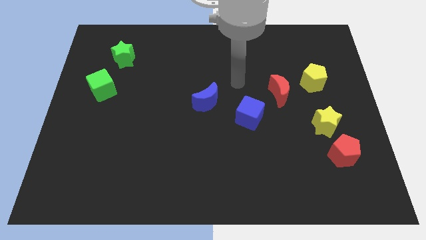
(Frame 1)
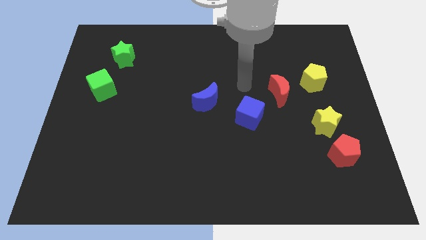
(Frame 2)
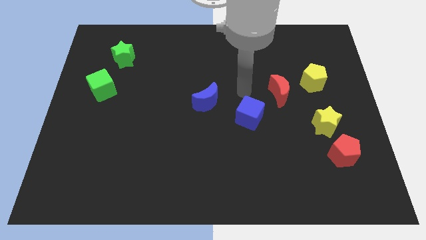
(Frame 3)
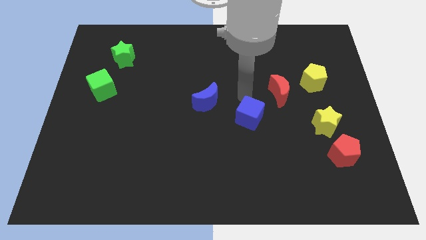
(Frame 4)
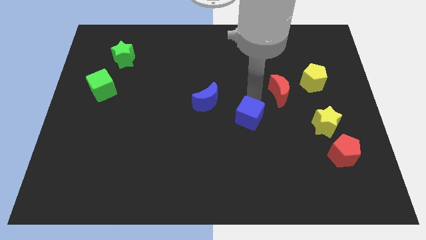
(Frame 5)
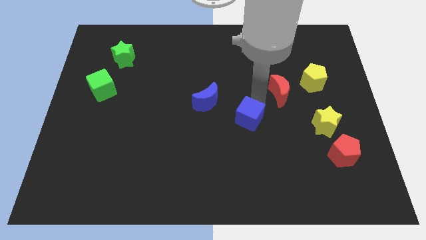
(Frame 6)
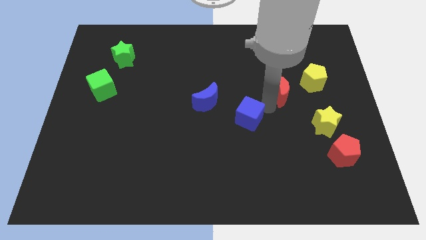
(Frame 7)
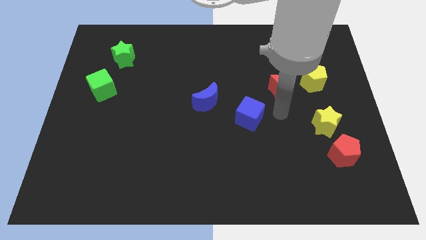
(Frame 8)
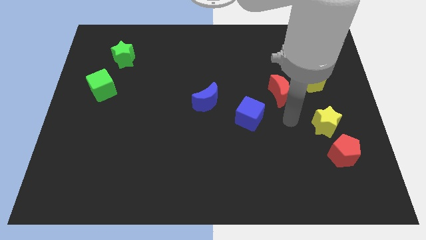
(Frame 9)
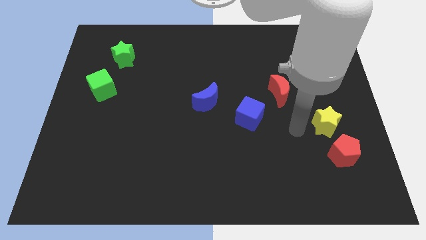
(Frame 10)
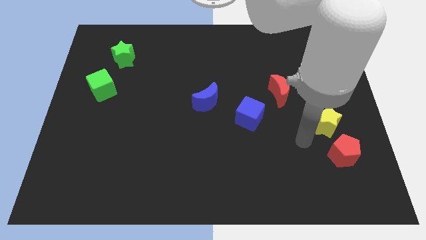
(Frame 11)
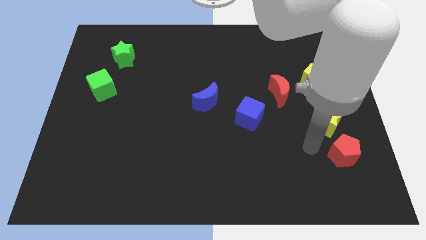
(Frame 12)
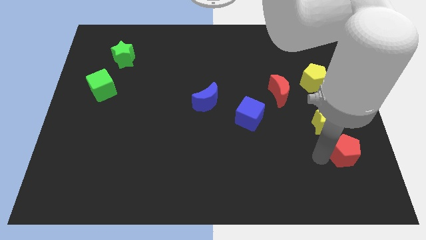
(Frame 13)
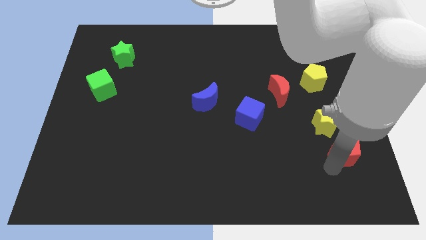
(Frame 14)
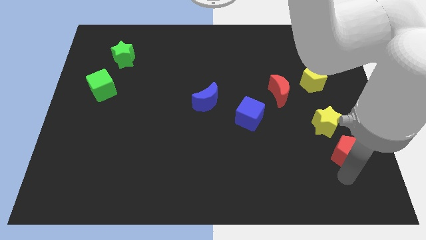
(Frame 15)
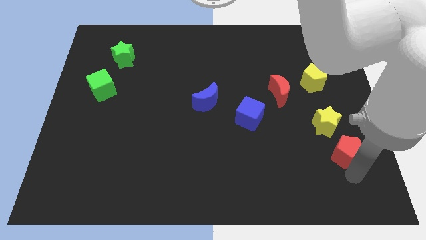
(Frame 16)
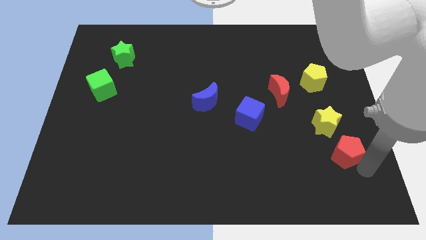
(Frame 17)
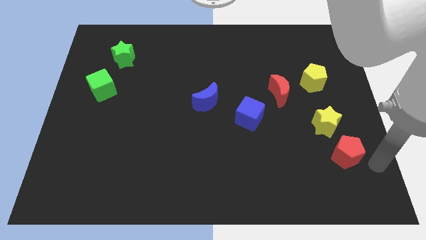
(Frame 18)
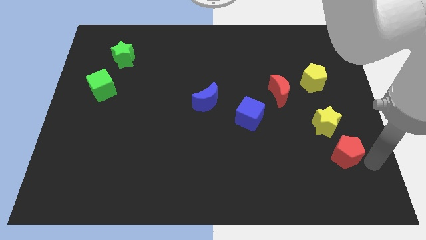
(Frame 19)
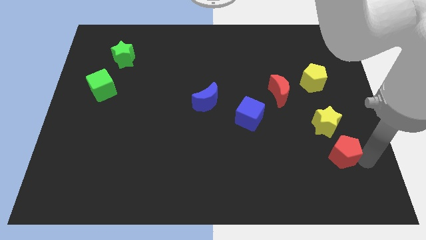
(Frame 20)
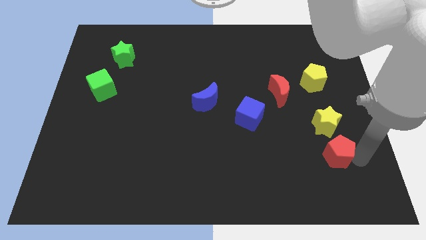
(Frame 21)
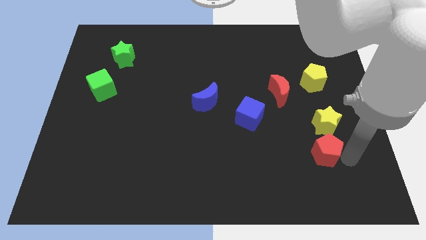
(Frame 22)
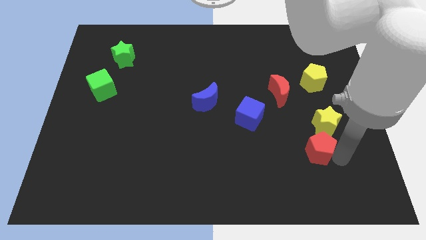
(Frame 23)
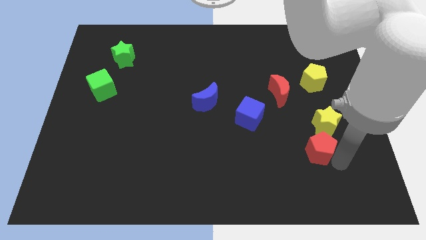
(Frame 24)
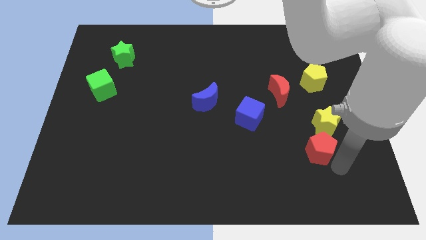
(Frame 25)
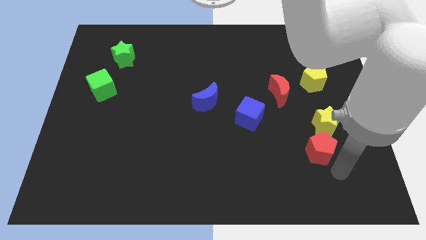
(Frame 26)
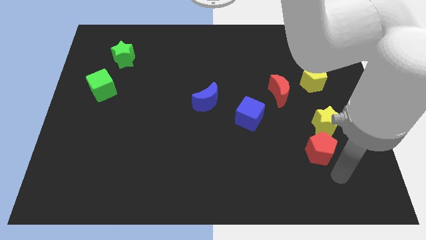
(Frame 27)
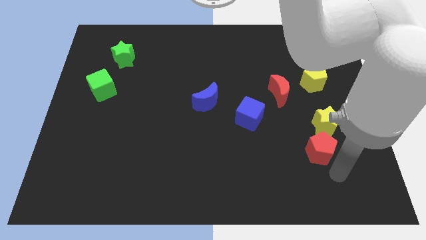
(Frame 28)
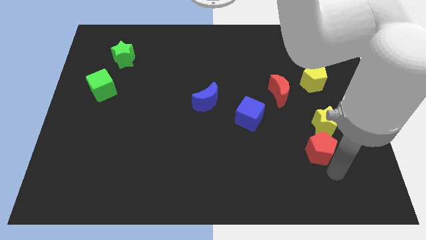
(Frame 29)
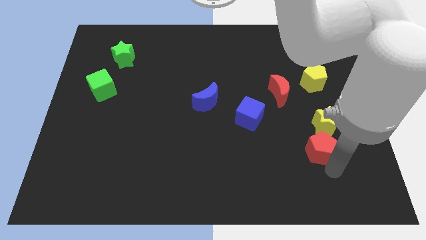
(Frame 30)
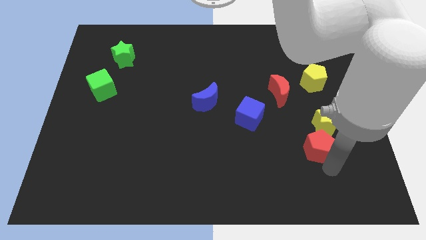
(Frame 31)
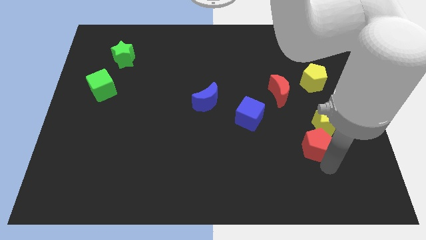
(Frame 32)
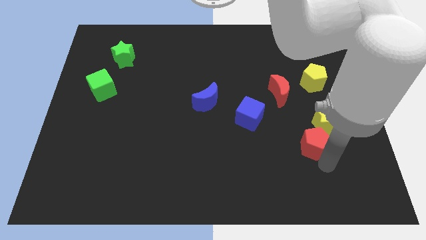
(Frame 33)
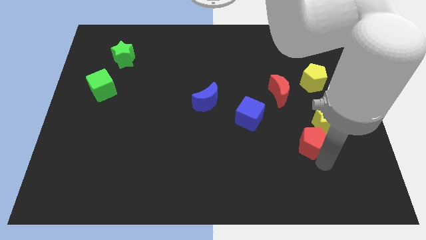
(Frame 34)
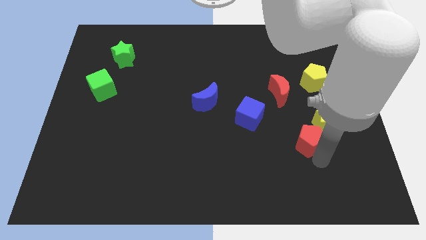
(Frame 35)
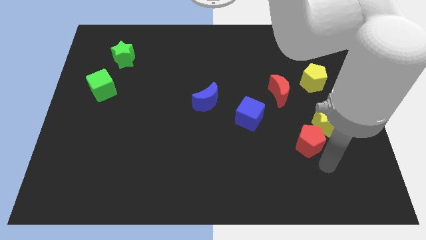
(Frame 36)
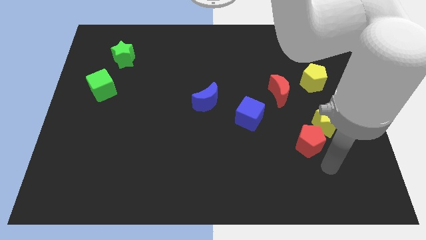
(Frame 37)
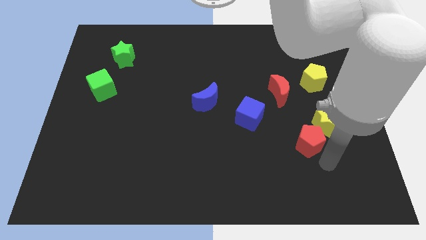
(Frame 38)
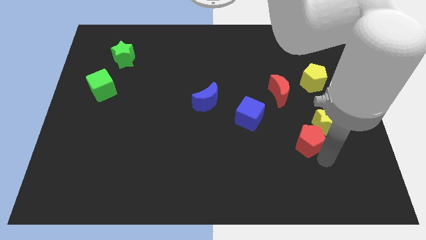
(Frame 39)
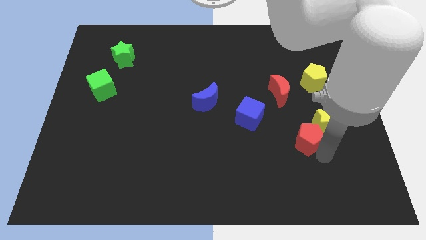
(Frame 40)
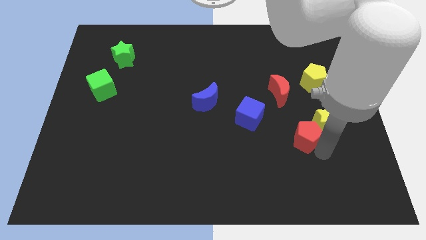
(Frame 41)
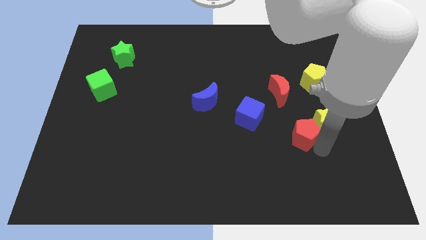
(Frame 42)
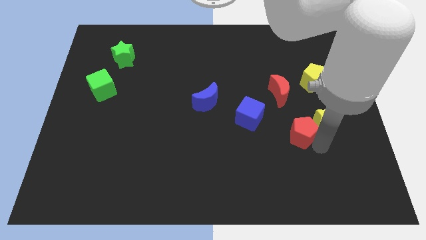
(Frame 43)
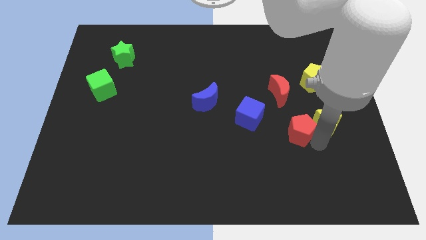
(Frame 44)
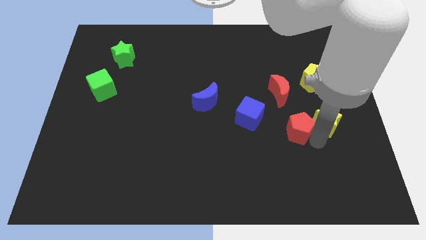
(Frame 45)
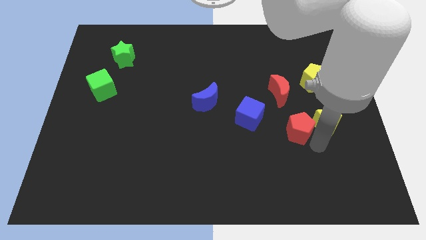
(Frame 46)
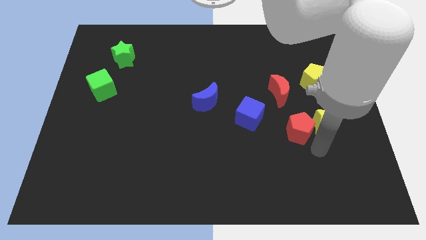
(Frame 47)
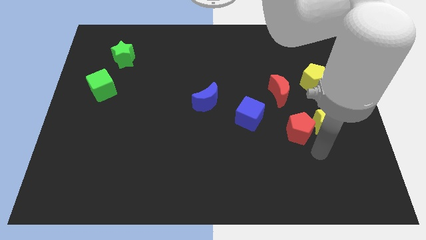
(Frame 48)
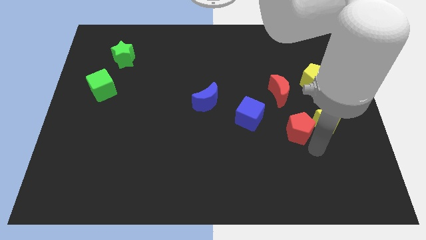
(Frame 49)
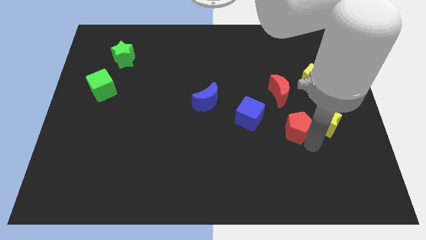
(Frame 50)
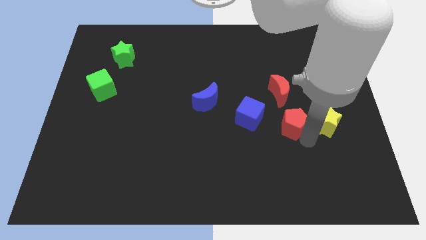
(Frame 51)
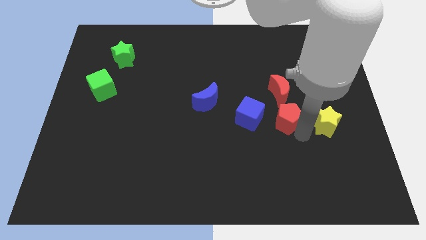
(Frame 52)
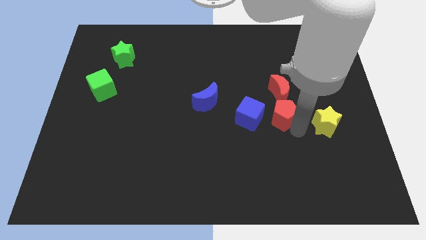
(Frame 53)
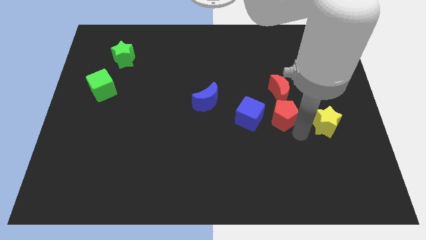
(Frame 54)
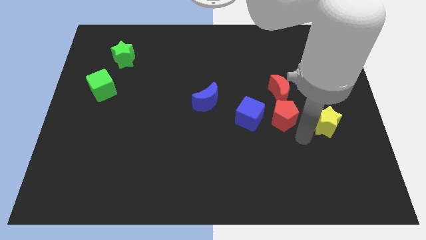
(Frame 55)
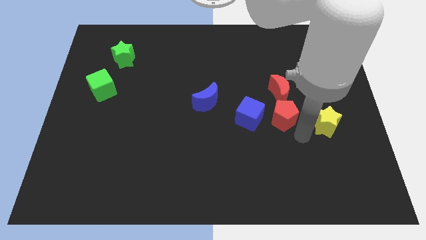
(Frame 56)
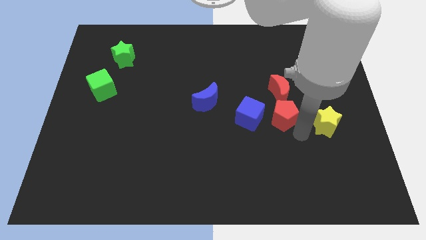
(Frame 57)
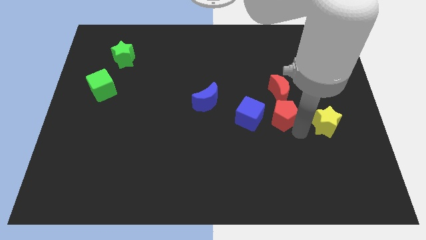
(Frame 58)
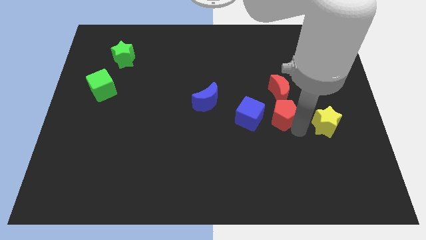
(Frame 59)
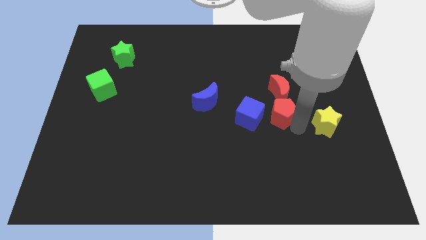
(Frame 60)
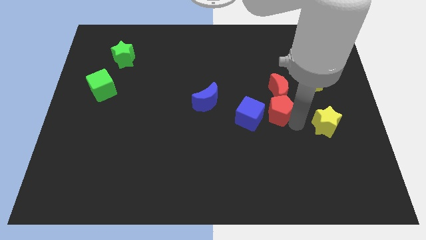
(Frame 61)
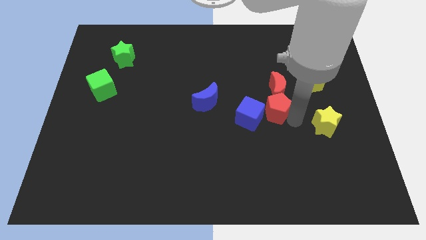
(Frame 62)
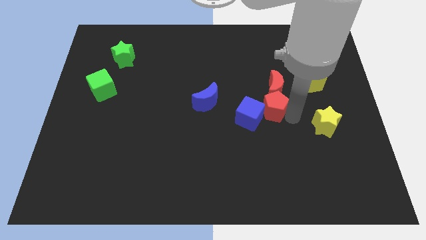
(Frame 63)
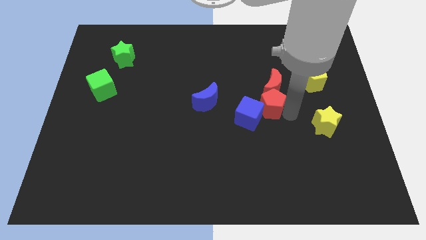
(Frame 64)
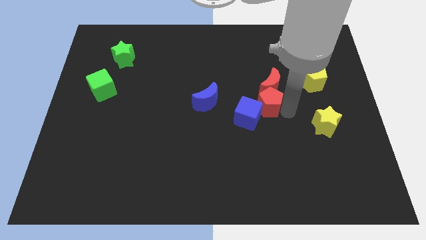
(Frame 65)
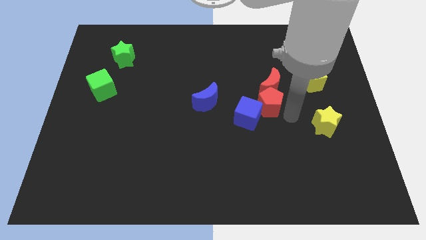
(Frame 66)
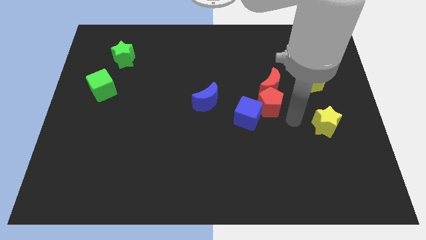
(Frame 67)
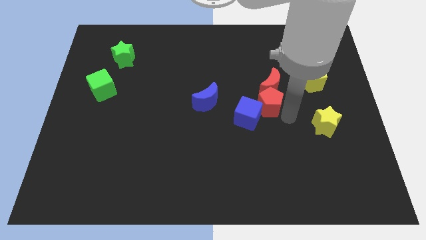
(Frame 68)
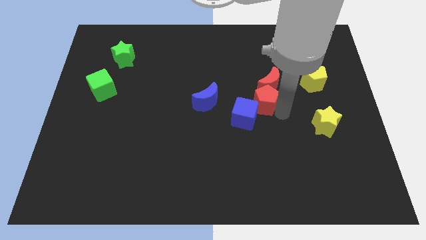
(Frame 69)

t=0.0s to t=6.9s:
move the red pentagon upwards and to the left diagonally

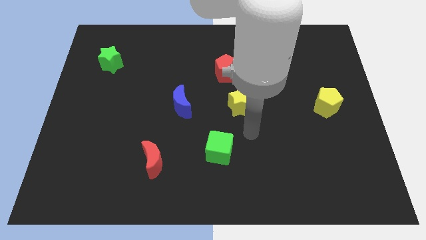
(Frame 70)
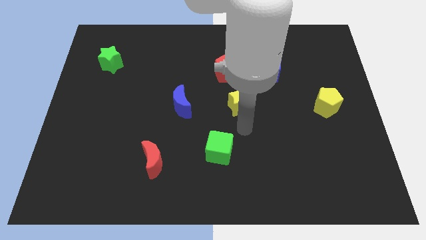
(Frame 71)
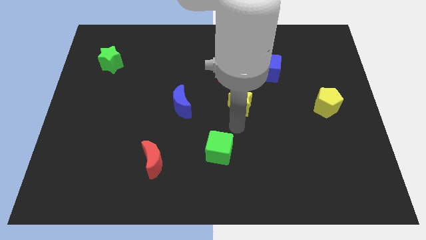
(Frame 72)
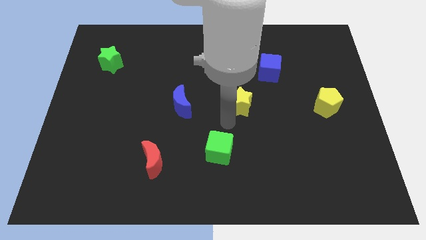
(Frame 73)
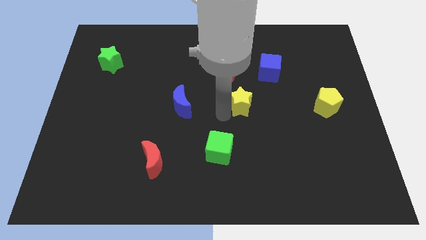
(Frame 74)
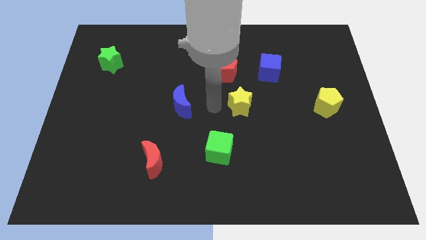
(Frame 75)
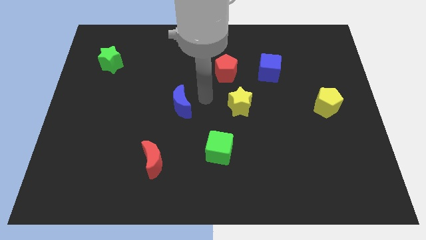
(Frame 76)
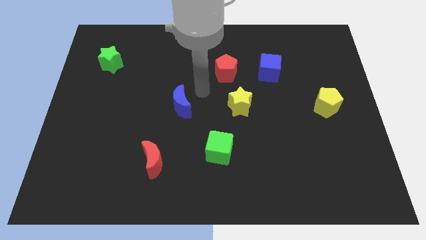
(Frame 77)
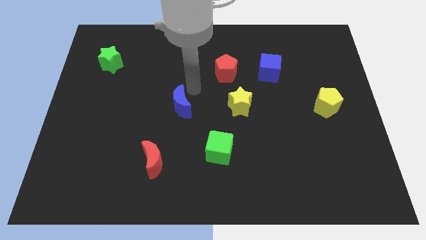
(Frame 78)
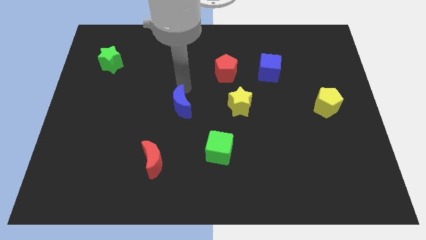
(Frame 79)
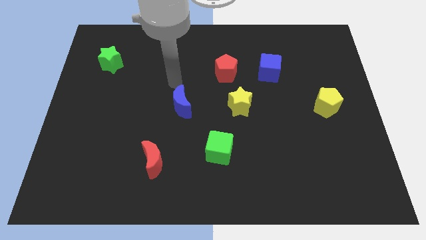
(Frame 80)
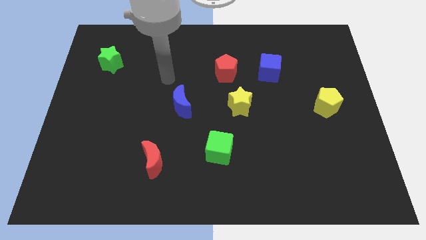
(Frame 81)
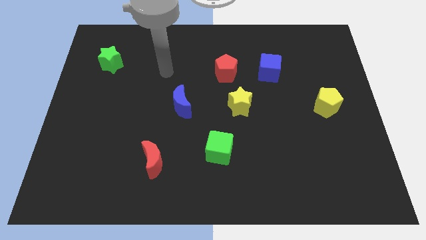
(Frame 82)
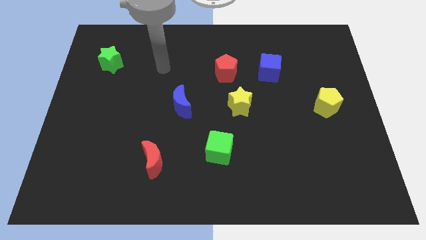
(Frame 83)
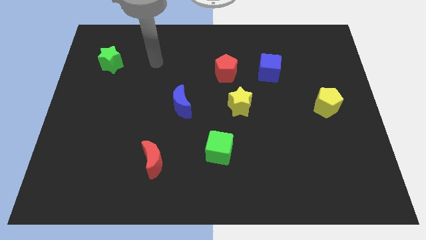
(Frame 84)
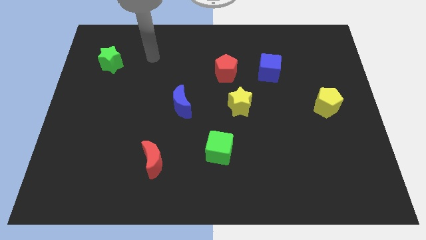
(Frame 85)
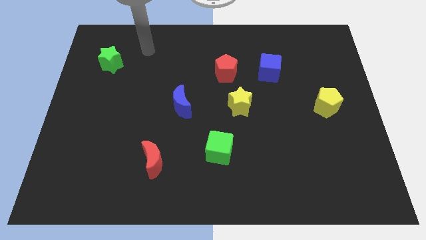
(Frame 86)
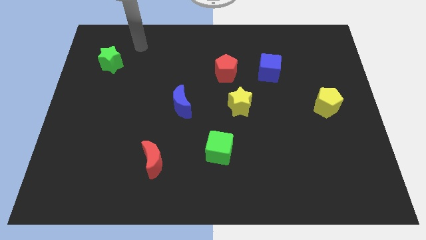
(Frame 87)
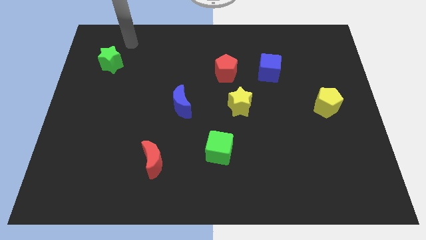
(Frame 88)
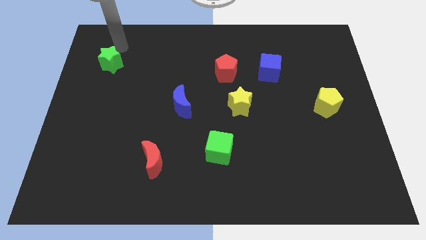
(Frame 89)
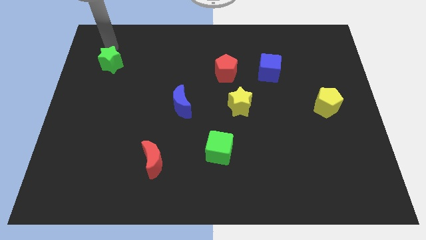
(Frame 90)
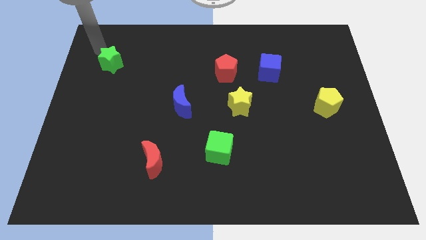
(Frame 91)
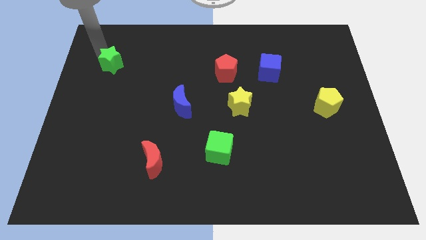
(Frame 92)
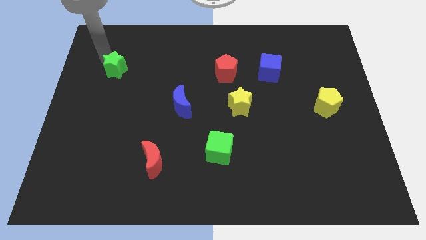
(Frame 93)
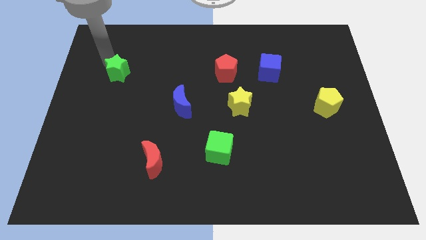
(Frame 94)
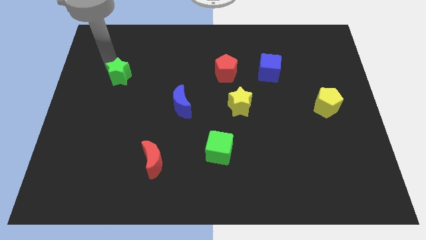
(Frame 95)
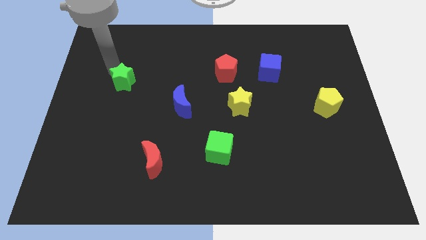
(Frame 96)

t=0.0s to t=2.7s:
push the green star somewhat downwards and to the right diagonally
